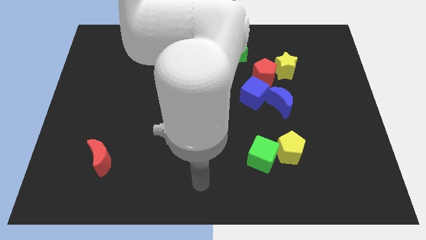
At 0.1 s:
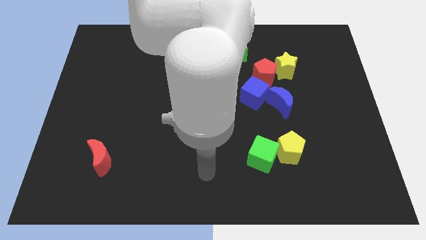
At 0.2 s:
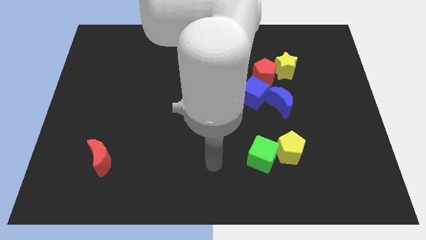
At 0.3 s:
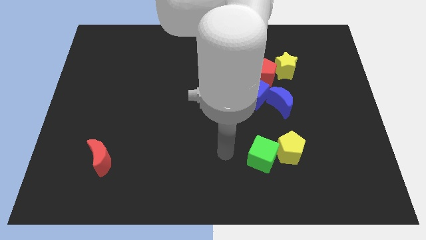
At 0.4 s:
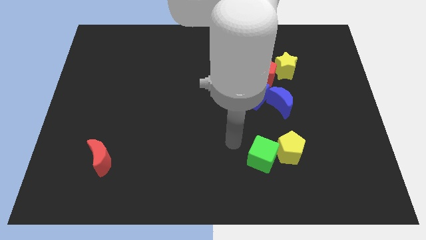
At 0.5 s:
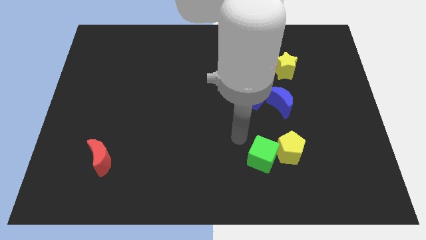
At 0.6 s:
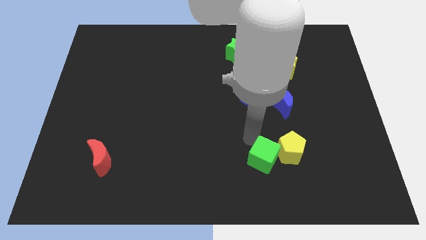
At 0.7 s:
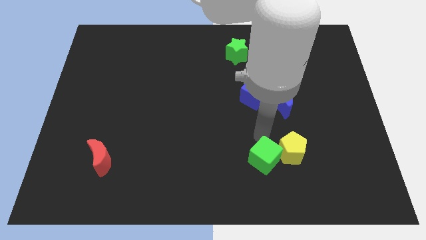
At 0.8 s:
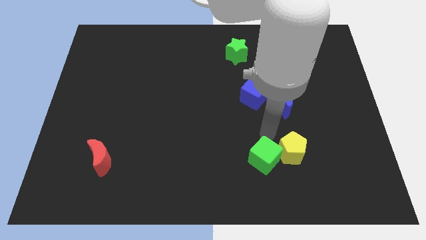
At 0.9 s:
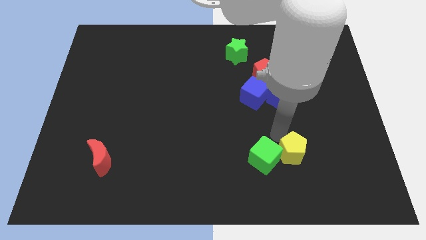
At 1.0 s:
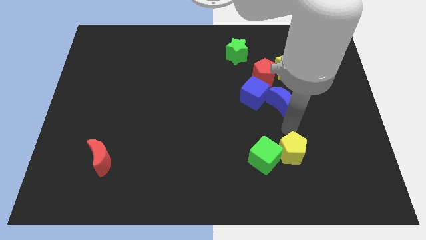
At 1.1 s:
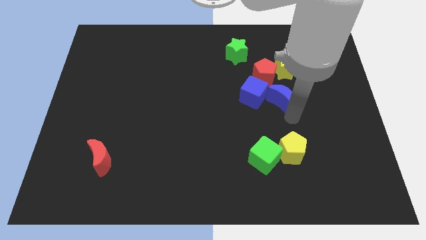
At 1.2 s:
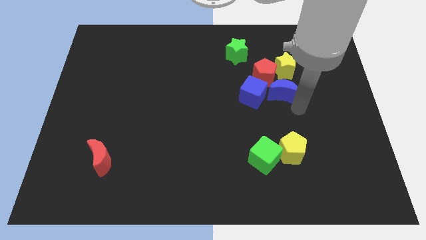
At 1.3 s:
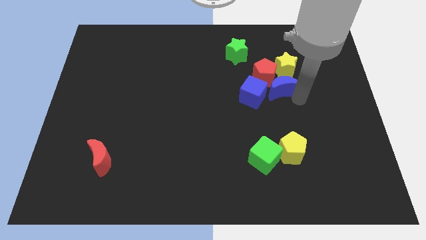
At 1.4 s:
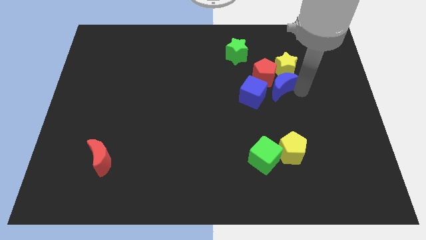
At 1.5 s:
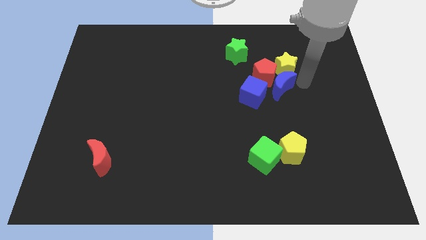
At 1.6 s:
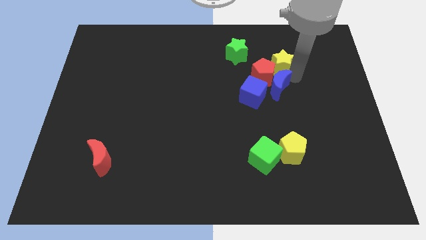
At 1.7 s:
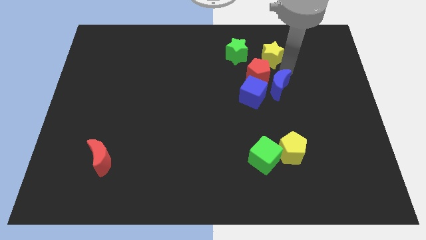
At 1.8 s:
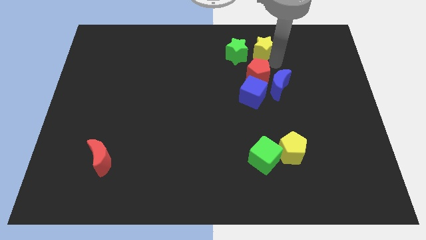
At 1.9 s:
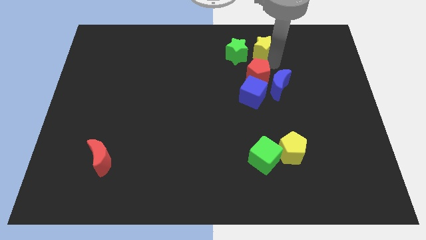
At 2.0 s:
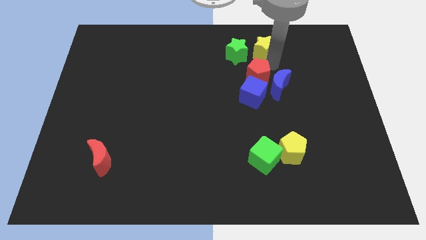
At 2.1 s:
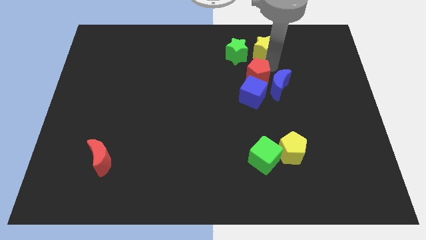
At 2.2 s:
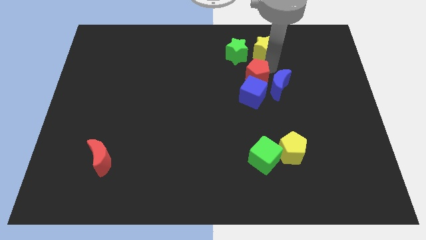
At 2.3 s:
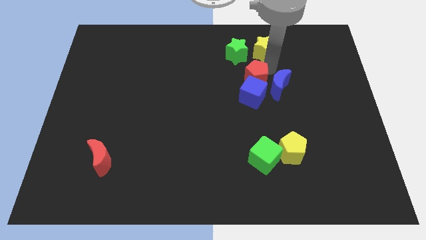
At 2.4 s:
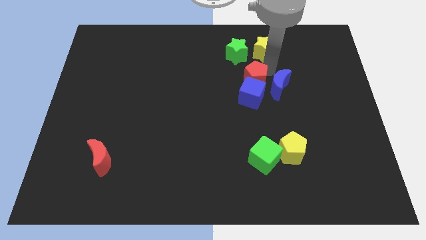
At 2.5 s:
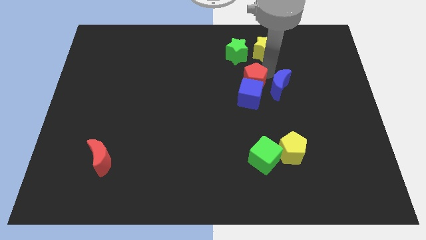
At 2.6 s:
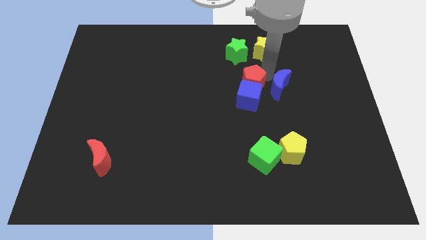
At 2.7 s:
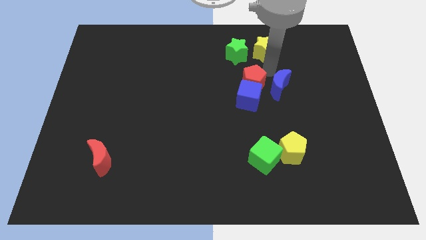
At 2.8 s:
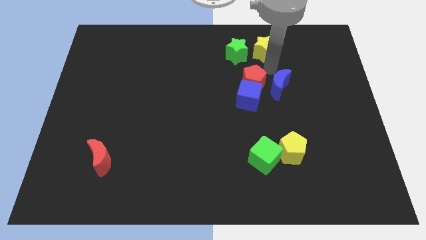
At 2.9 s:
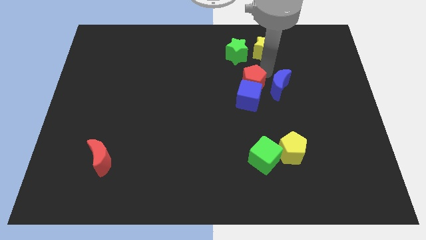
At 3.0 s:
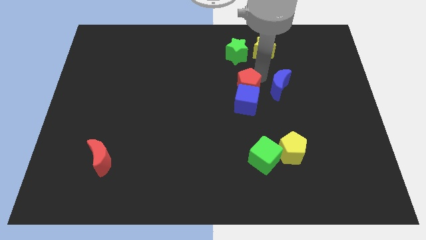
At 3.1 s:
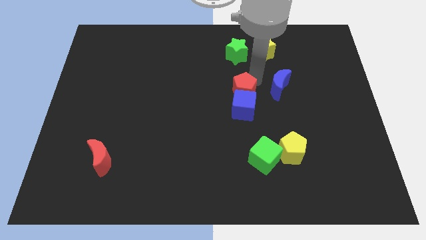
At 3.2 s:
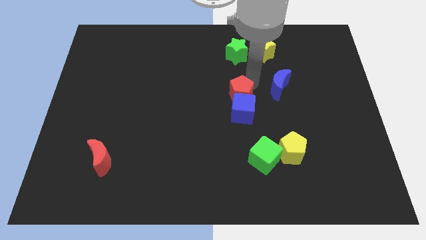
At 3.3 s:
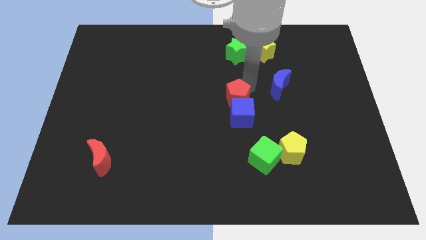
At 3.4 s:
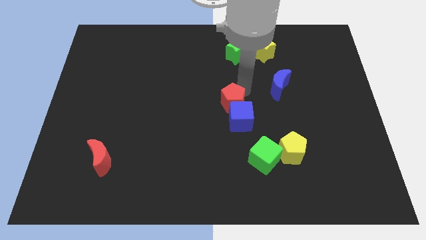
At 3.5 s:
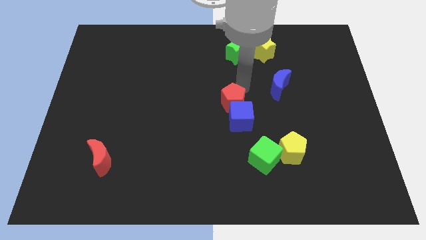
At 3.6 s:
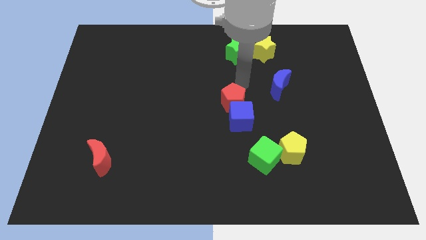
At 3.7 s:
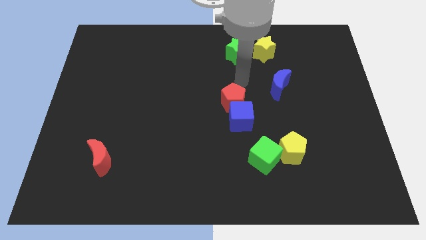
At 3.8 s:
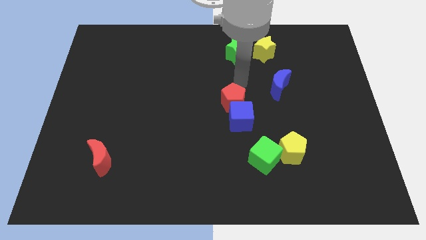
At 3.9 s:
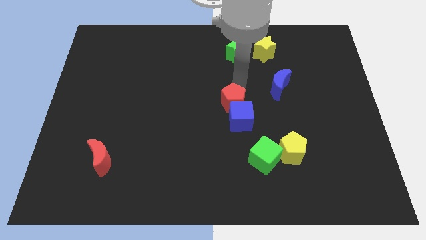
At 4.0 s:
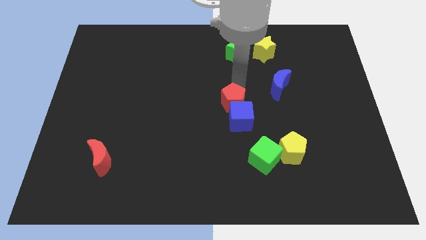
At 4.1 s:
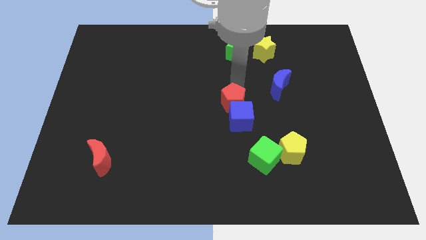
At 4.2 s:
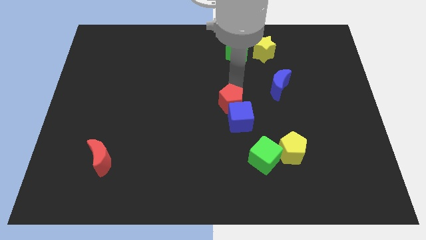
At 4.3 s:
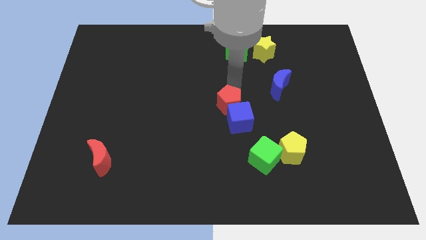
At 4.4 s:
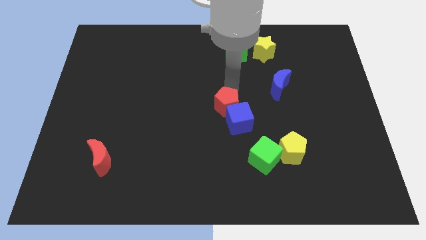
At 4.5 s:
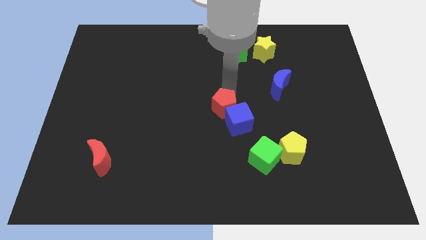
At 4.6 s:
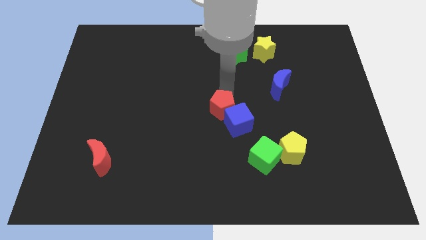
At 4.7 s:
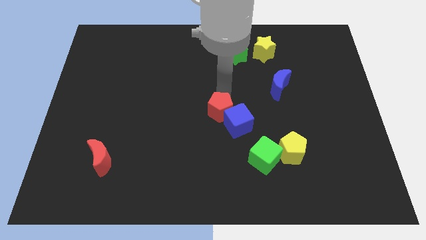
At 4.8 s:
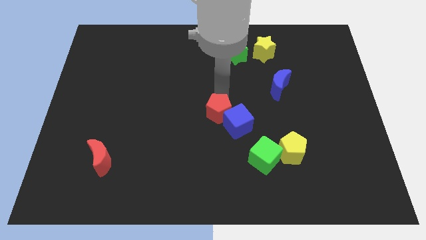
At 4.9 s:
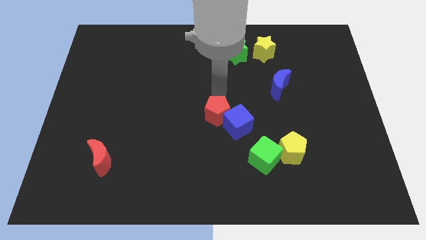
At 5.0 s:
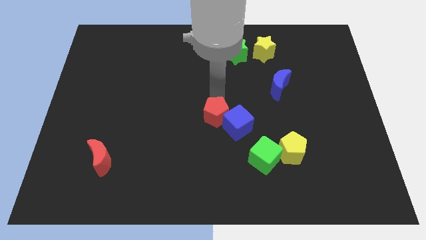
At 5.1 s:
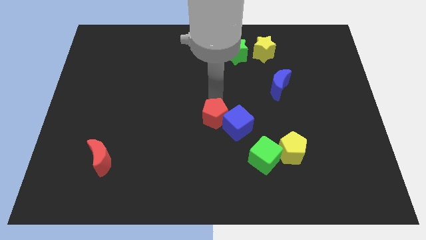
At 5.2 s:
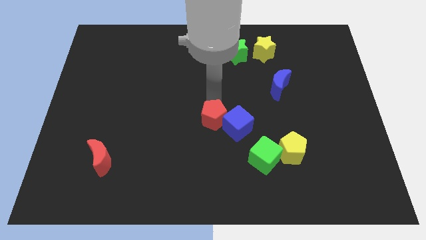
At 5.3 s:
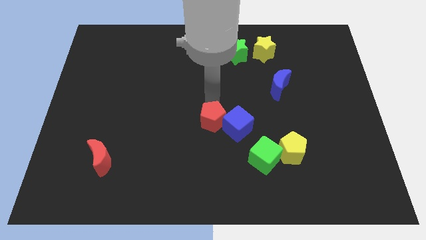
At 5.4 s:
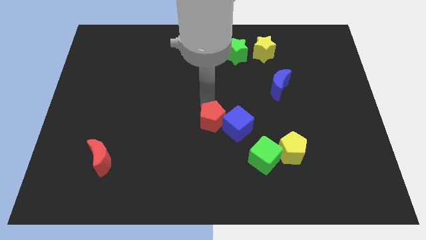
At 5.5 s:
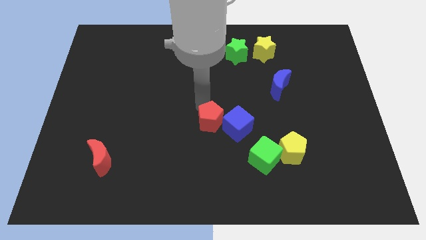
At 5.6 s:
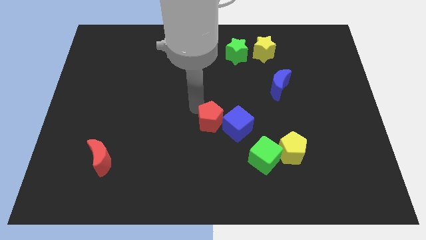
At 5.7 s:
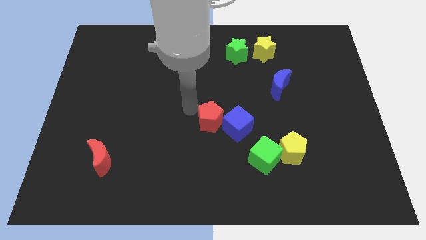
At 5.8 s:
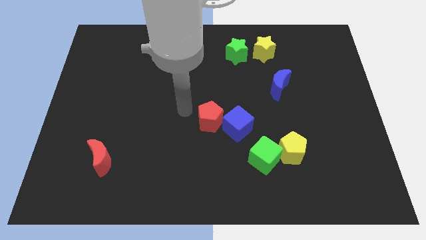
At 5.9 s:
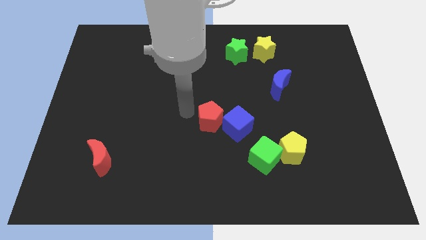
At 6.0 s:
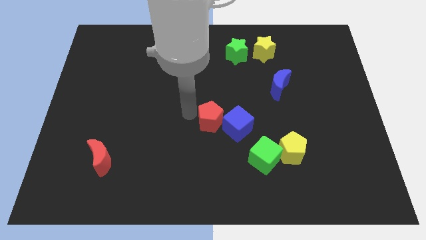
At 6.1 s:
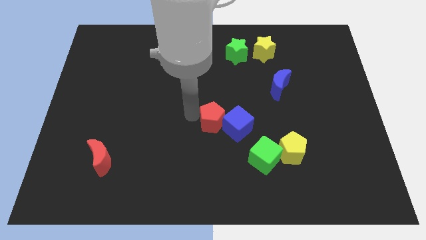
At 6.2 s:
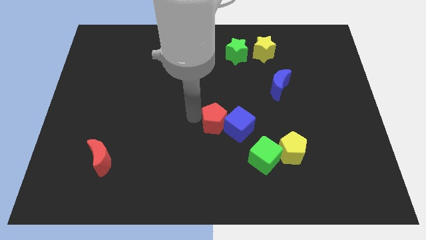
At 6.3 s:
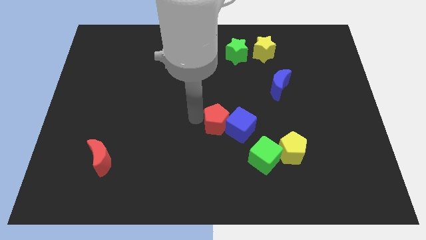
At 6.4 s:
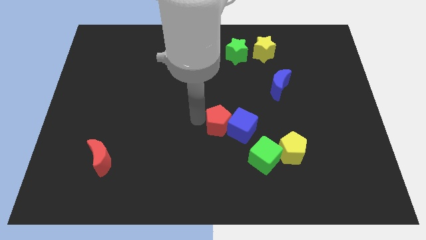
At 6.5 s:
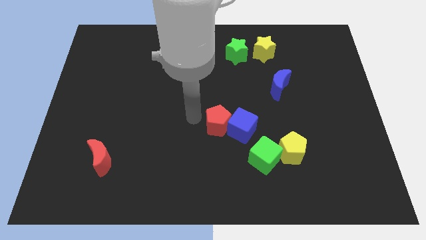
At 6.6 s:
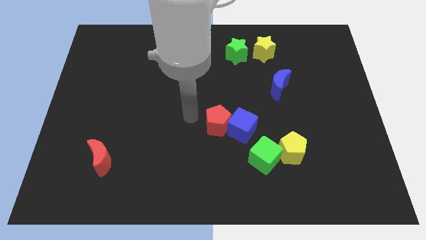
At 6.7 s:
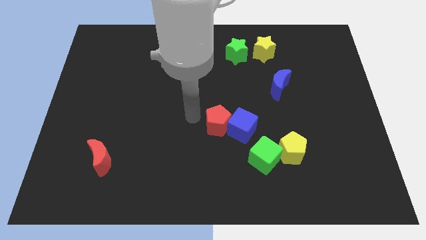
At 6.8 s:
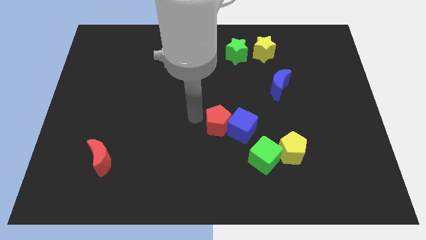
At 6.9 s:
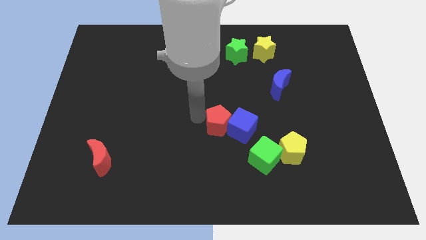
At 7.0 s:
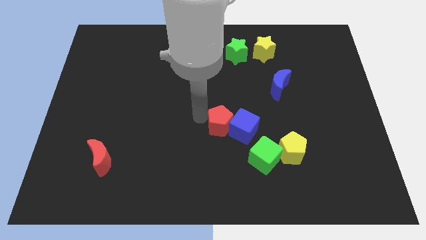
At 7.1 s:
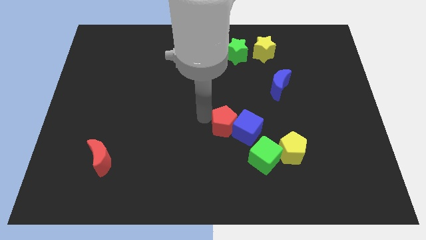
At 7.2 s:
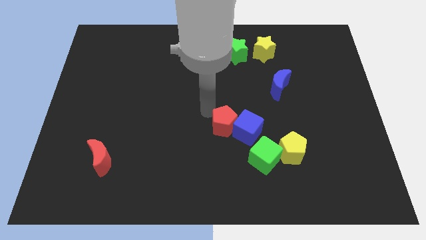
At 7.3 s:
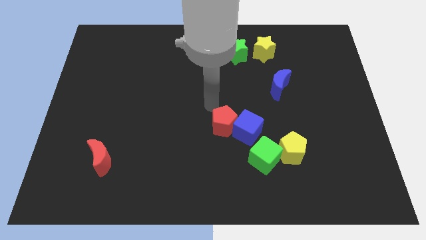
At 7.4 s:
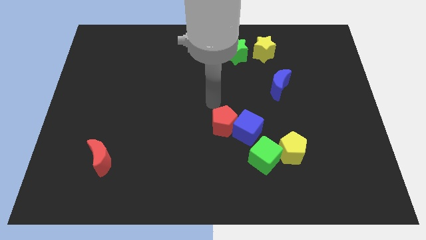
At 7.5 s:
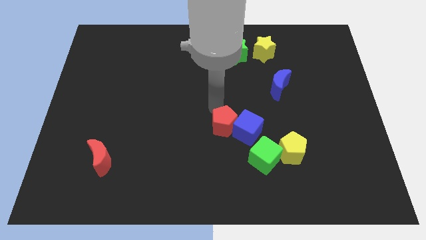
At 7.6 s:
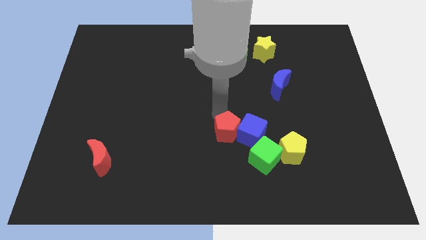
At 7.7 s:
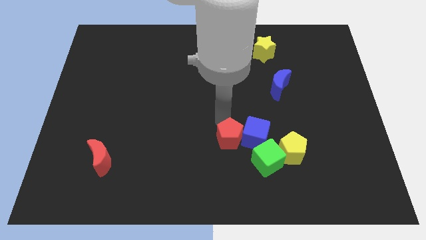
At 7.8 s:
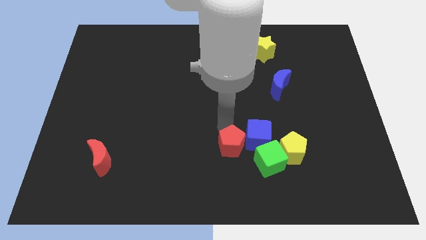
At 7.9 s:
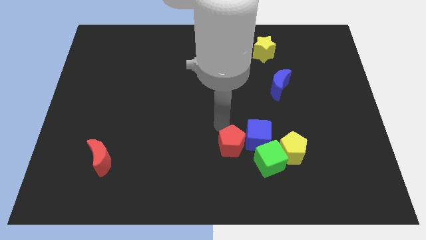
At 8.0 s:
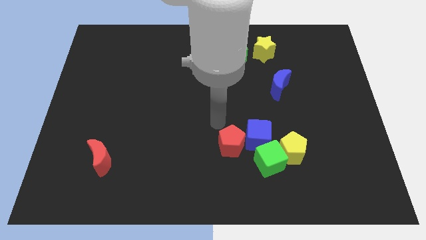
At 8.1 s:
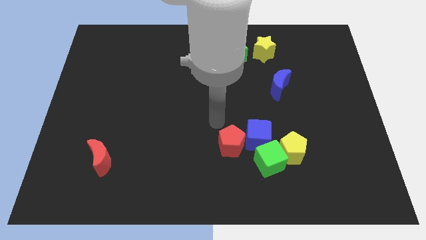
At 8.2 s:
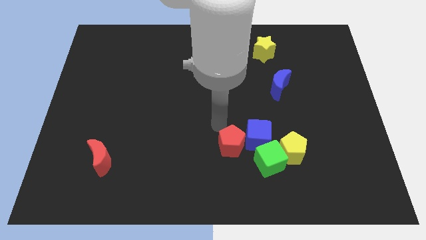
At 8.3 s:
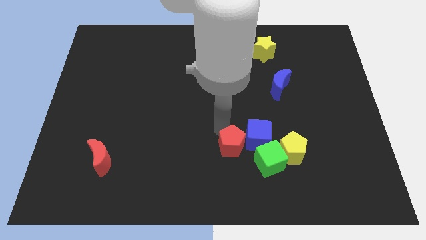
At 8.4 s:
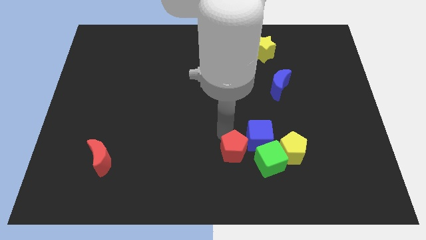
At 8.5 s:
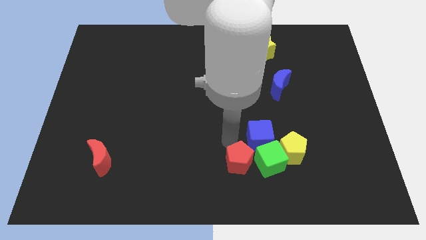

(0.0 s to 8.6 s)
move the red pentagon diagonally down and to the left of the green cube
